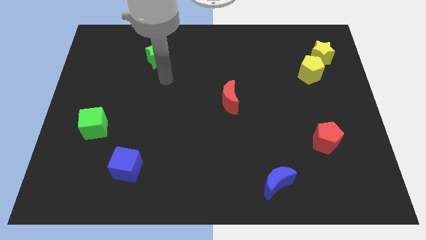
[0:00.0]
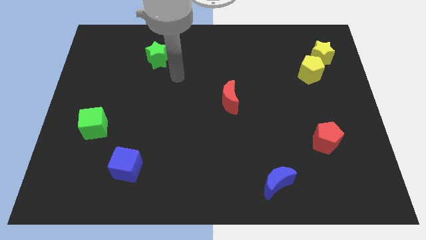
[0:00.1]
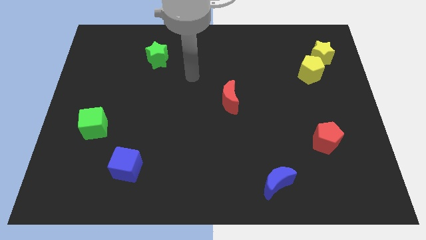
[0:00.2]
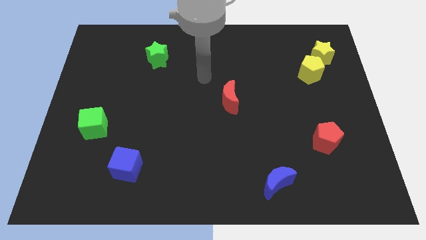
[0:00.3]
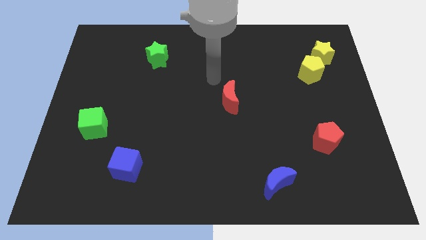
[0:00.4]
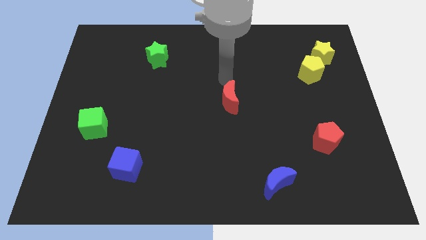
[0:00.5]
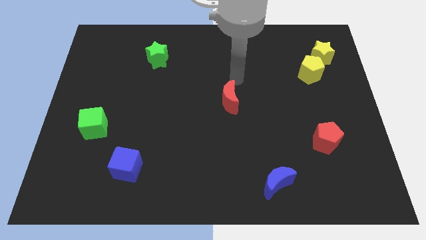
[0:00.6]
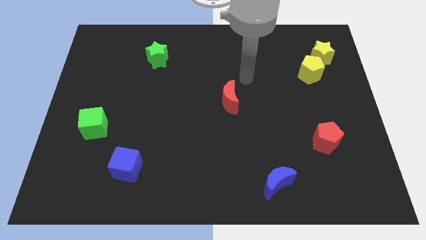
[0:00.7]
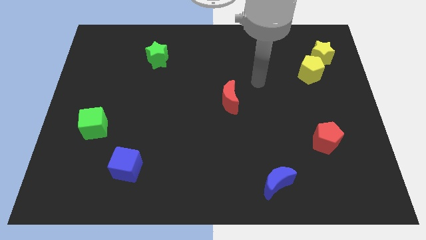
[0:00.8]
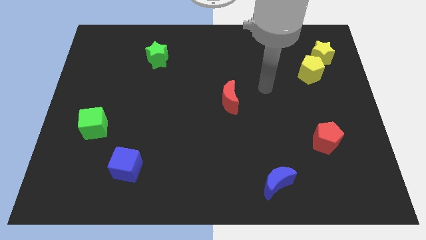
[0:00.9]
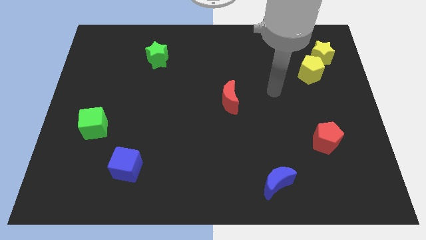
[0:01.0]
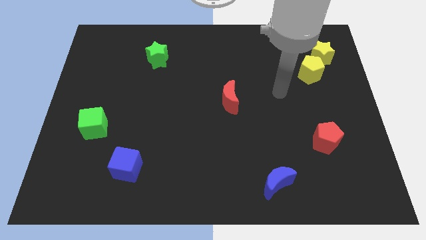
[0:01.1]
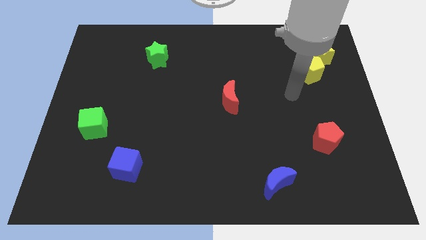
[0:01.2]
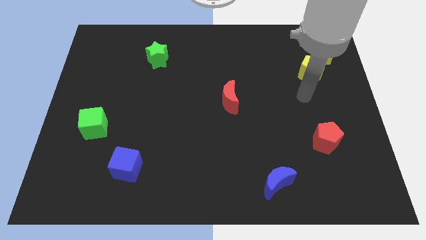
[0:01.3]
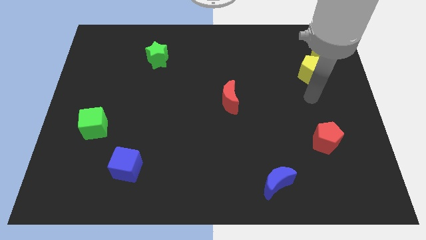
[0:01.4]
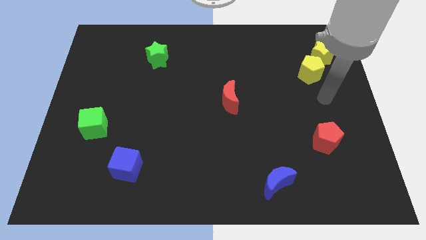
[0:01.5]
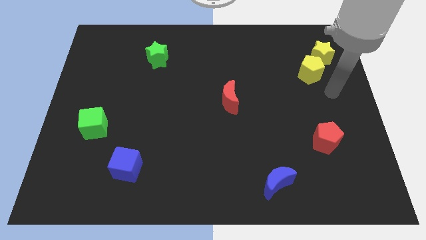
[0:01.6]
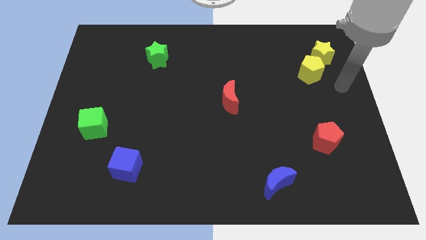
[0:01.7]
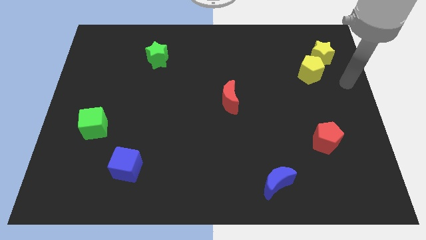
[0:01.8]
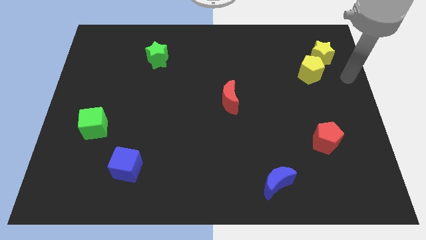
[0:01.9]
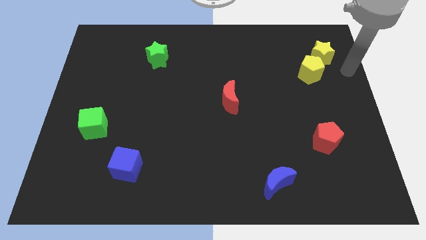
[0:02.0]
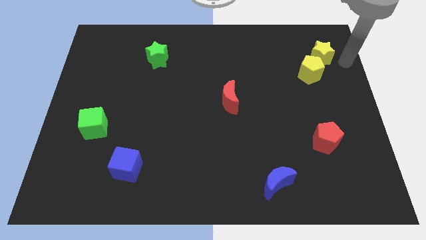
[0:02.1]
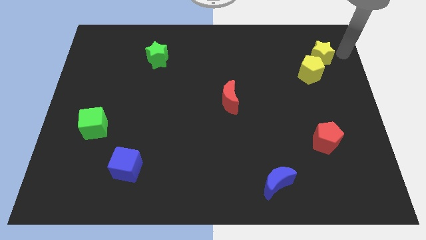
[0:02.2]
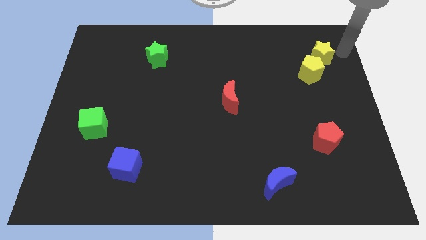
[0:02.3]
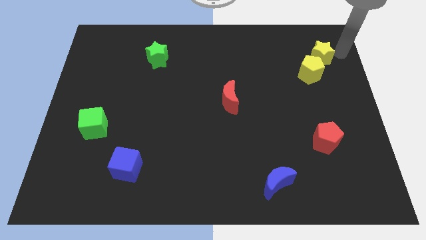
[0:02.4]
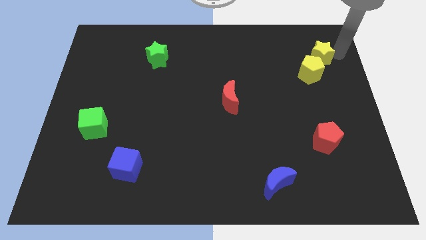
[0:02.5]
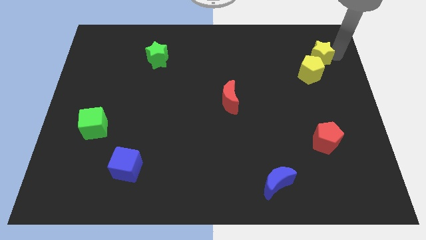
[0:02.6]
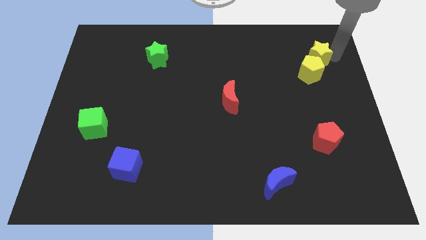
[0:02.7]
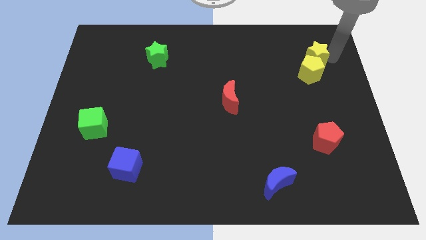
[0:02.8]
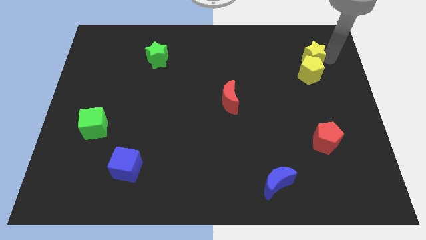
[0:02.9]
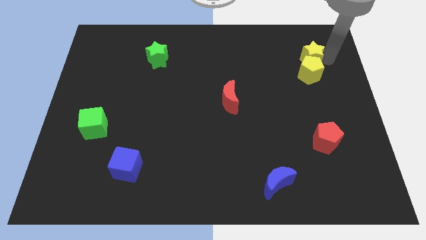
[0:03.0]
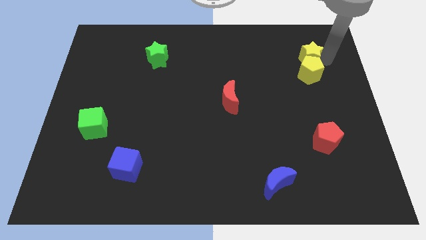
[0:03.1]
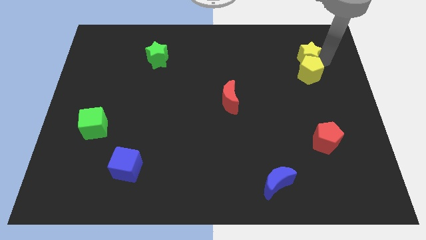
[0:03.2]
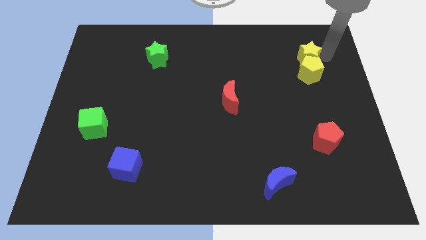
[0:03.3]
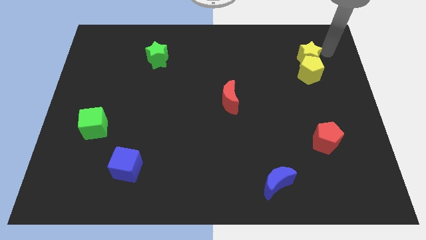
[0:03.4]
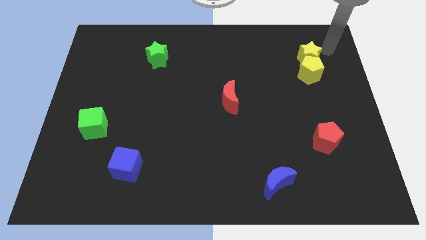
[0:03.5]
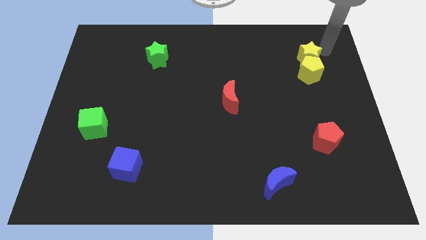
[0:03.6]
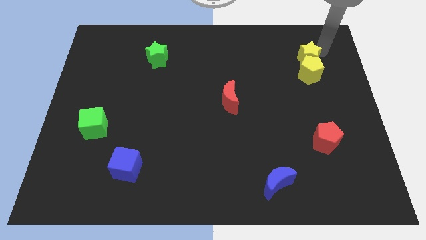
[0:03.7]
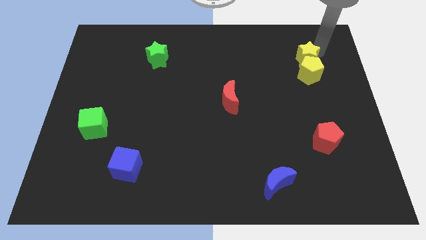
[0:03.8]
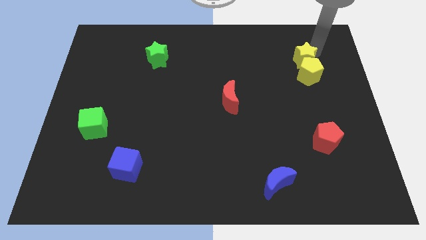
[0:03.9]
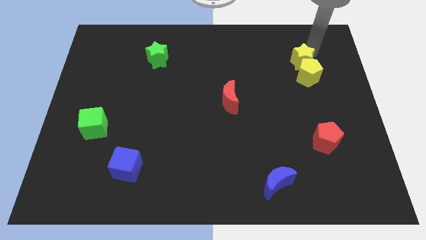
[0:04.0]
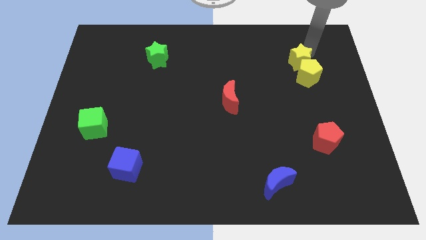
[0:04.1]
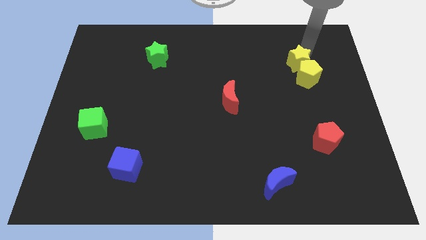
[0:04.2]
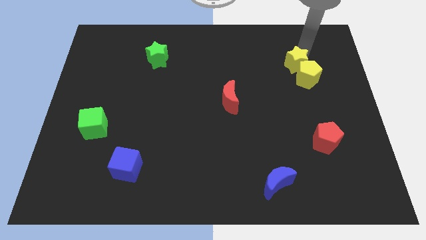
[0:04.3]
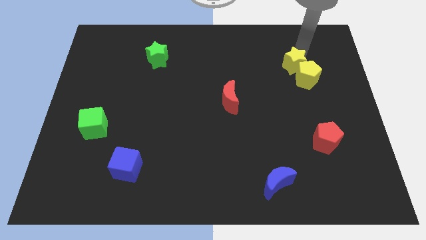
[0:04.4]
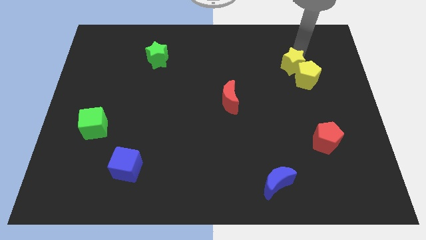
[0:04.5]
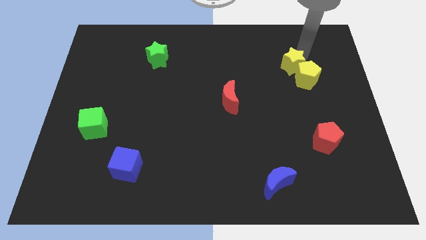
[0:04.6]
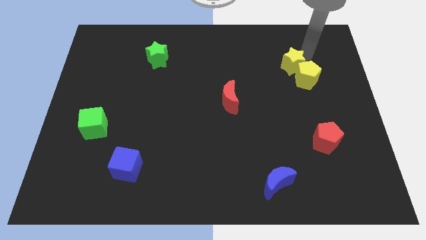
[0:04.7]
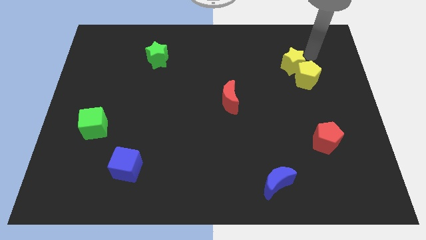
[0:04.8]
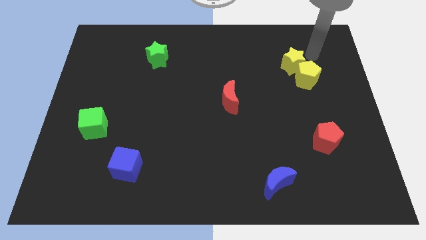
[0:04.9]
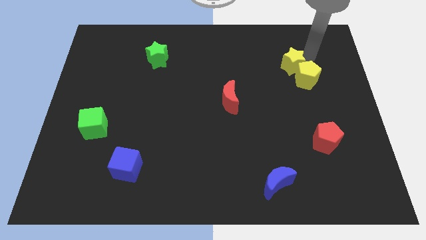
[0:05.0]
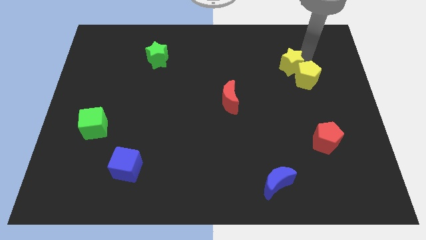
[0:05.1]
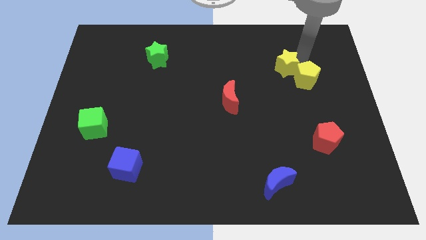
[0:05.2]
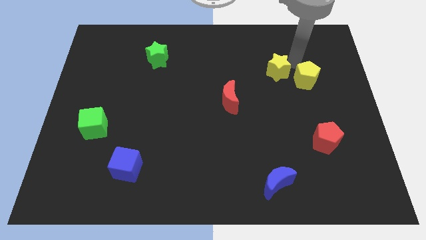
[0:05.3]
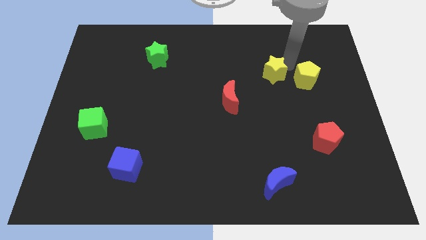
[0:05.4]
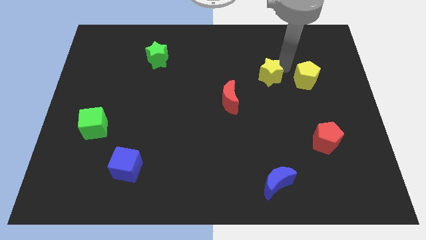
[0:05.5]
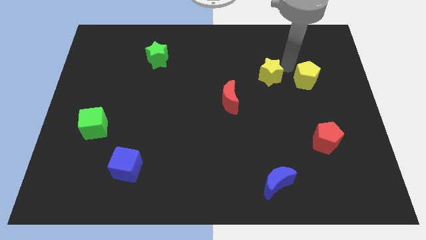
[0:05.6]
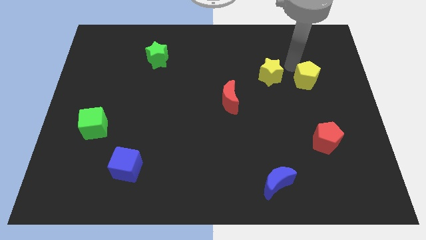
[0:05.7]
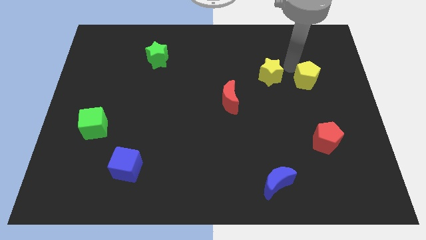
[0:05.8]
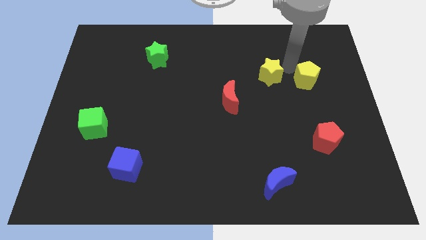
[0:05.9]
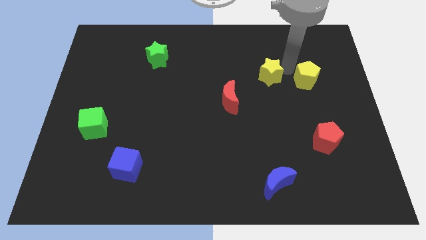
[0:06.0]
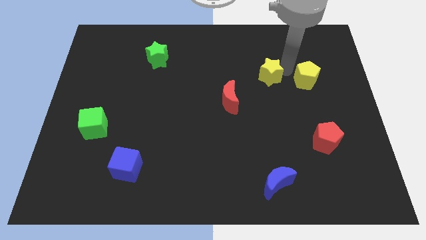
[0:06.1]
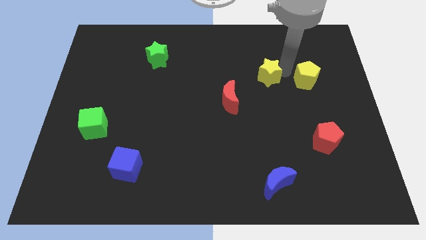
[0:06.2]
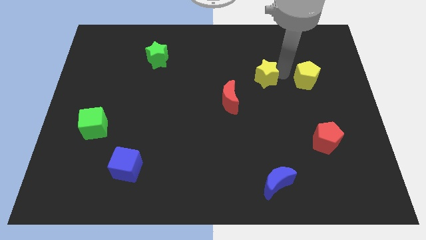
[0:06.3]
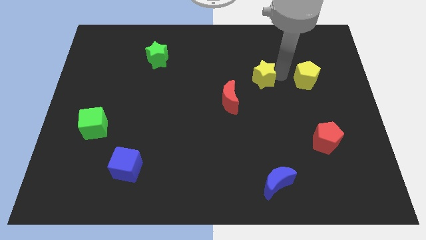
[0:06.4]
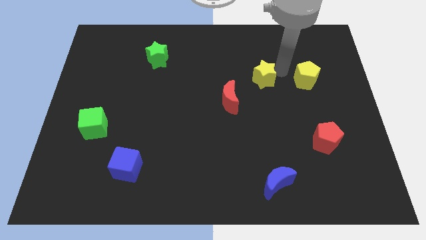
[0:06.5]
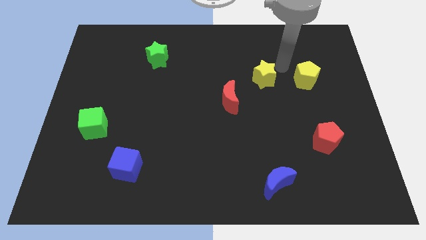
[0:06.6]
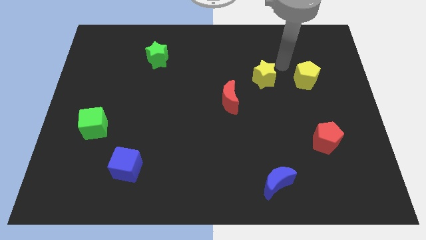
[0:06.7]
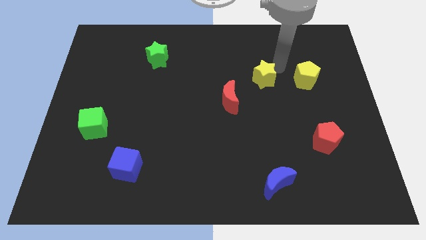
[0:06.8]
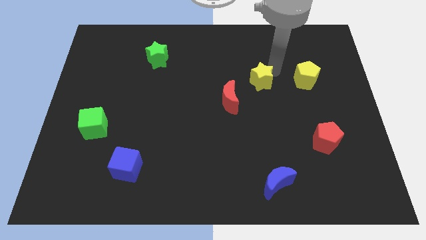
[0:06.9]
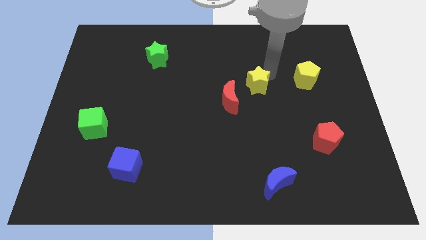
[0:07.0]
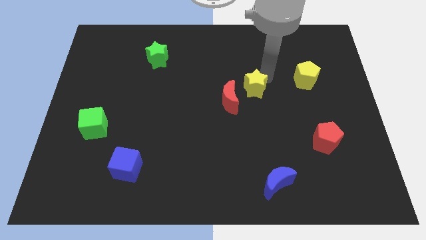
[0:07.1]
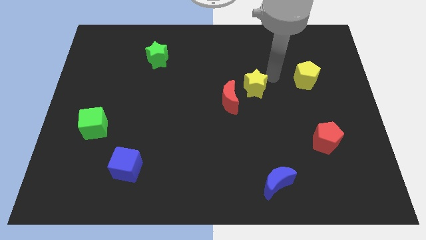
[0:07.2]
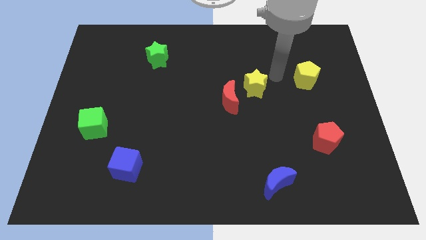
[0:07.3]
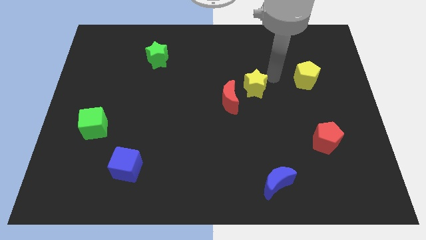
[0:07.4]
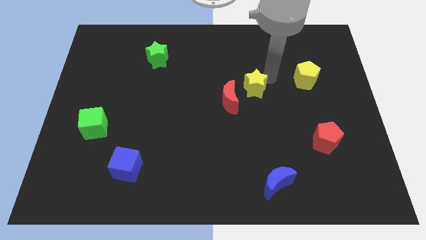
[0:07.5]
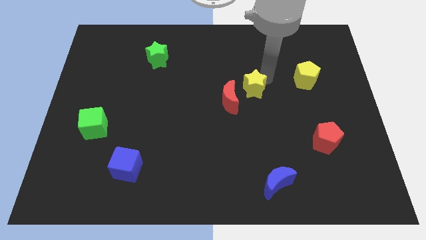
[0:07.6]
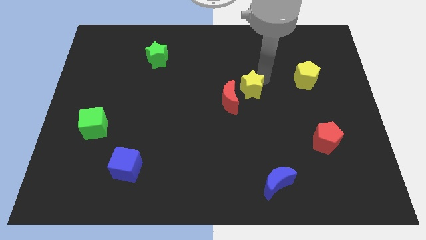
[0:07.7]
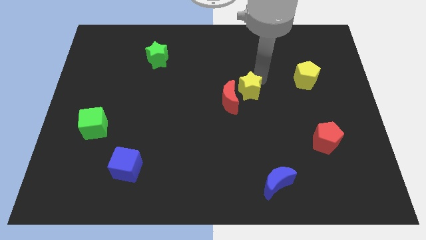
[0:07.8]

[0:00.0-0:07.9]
put the yellow star next to the red moon

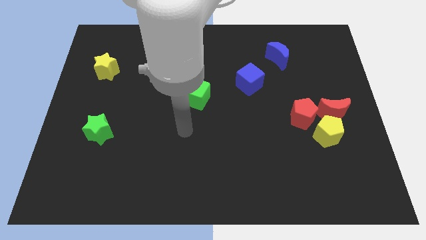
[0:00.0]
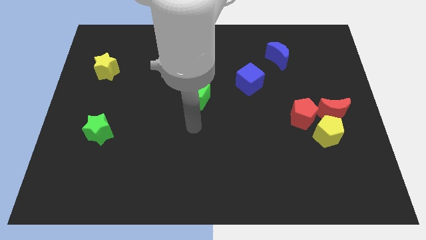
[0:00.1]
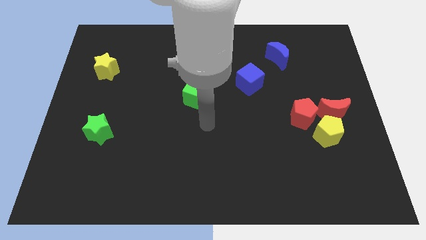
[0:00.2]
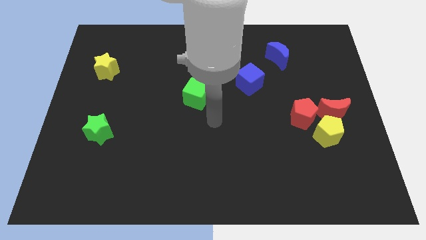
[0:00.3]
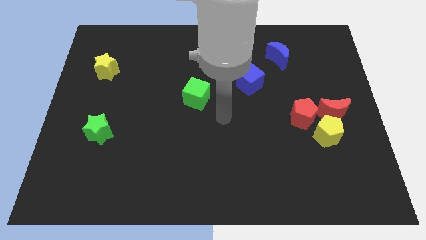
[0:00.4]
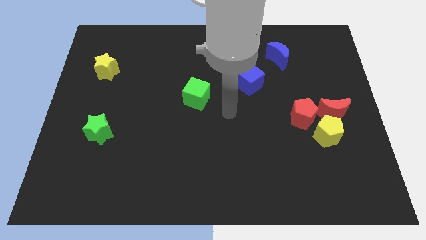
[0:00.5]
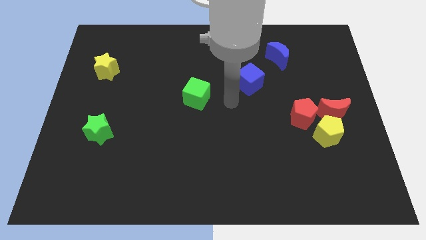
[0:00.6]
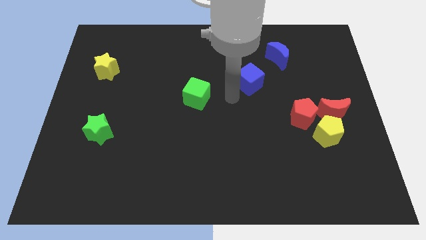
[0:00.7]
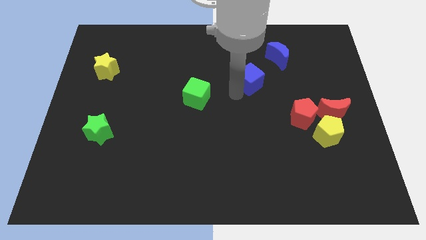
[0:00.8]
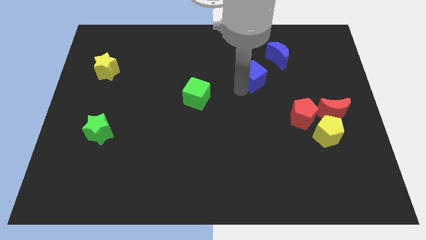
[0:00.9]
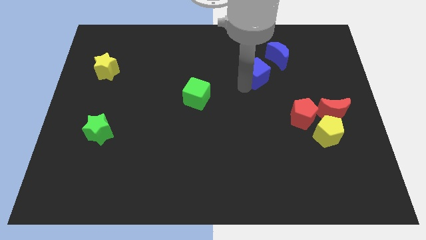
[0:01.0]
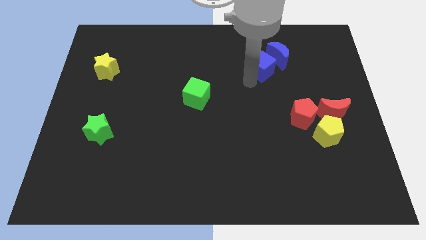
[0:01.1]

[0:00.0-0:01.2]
slide the blue cube close to the blue moon
